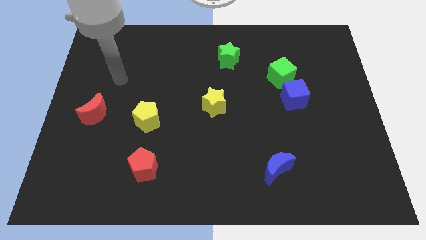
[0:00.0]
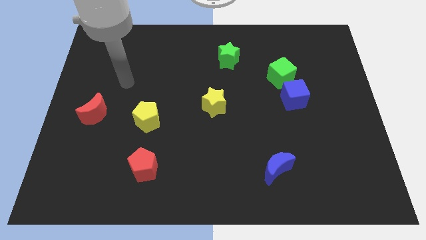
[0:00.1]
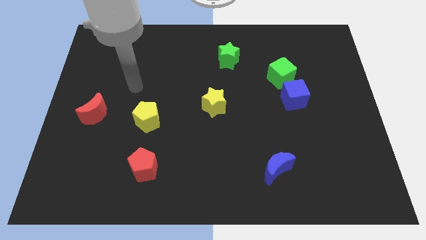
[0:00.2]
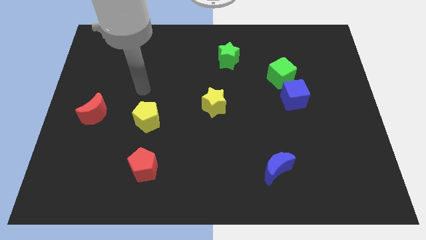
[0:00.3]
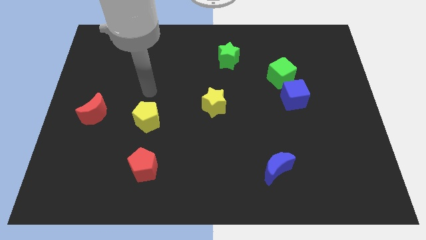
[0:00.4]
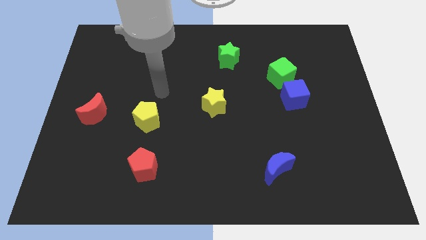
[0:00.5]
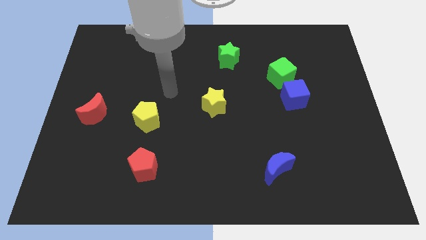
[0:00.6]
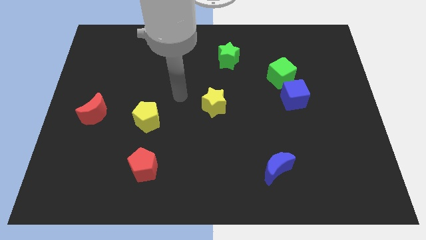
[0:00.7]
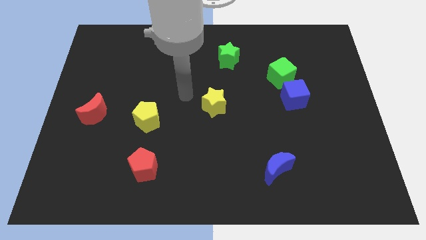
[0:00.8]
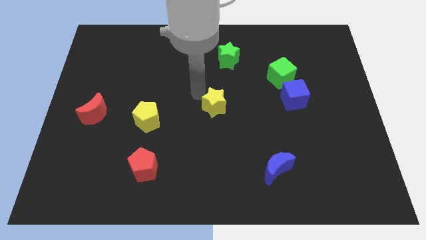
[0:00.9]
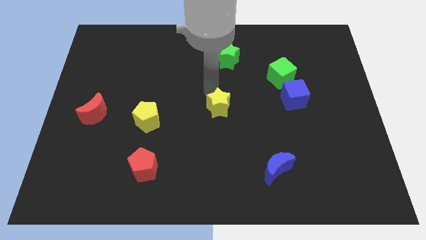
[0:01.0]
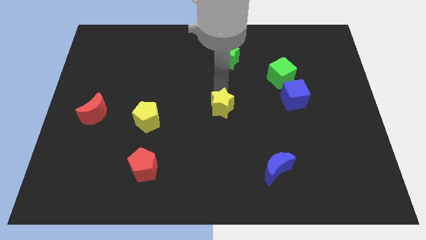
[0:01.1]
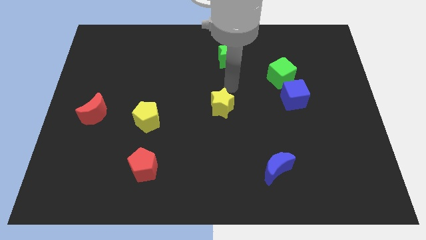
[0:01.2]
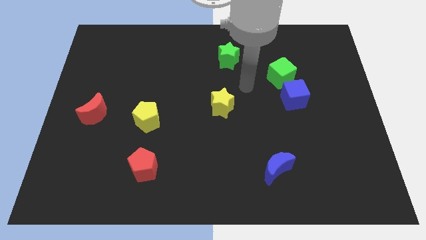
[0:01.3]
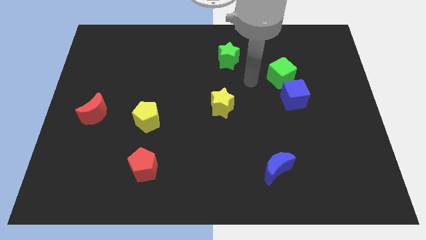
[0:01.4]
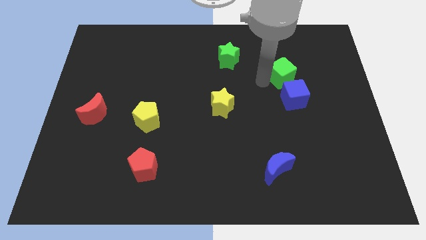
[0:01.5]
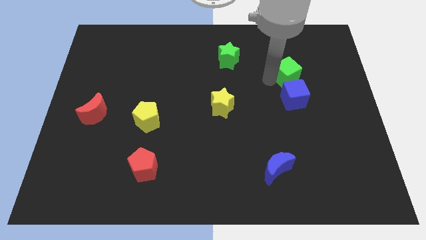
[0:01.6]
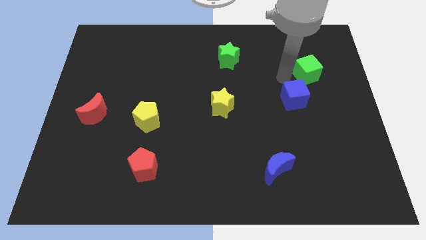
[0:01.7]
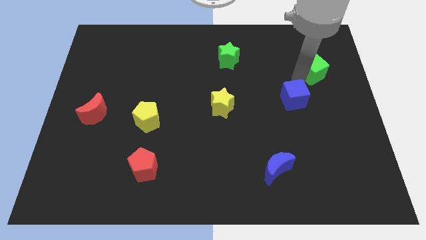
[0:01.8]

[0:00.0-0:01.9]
move the blue cube away from the green cube

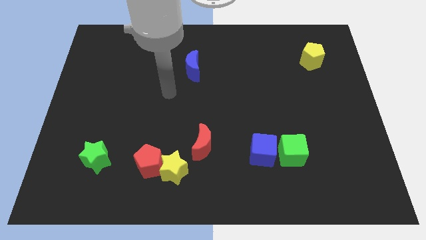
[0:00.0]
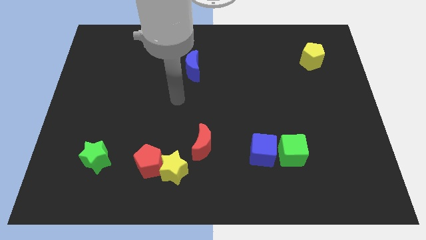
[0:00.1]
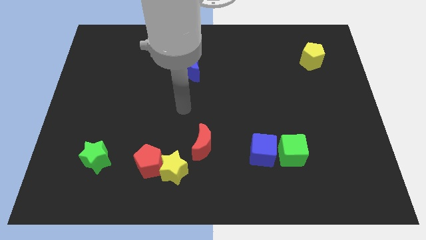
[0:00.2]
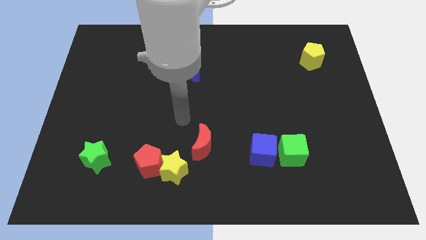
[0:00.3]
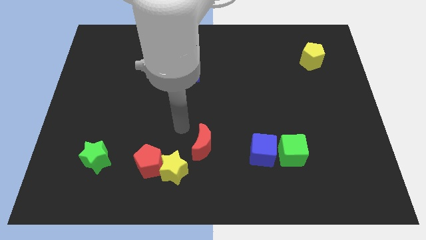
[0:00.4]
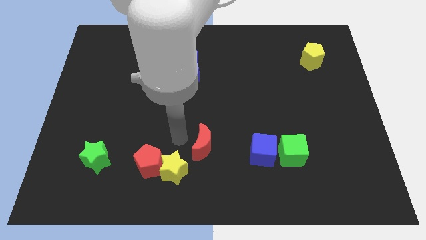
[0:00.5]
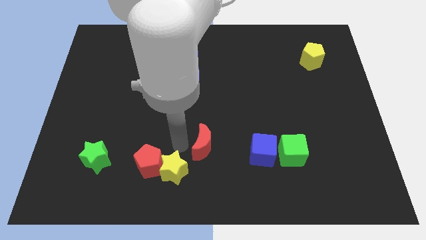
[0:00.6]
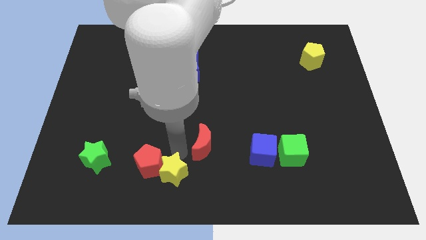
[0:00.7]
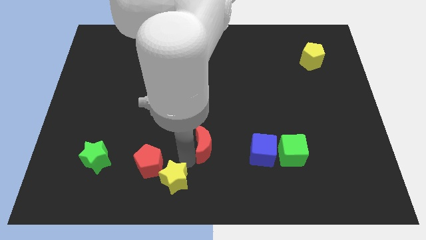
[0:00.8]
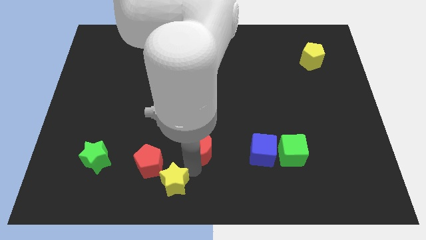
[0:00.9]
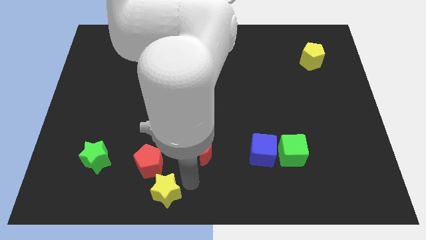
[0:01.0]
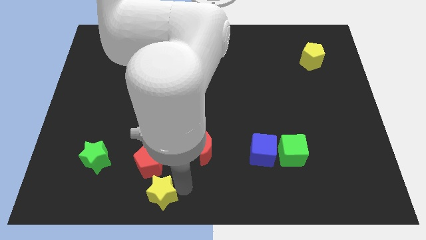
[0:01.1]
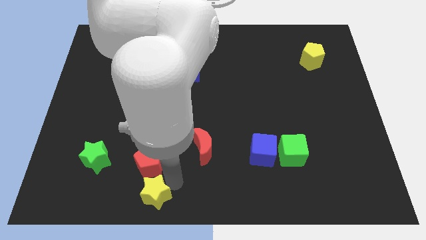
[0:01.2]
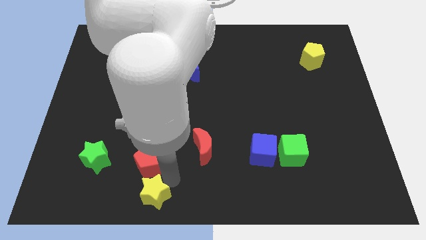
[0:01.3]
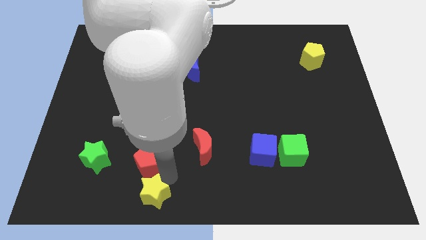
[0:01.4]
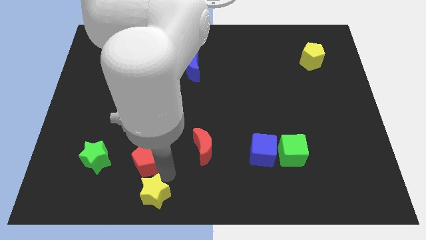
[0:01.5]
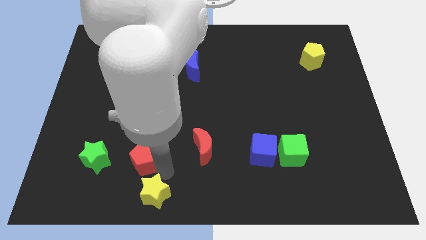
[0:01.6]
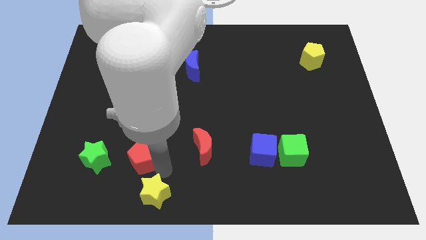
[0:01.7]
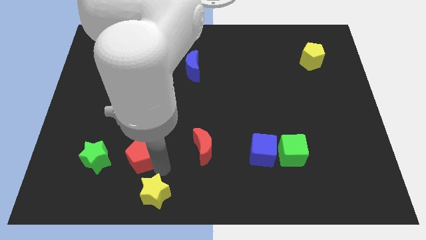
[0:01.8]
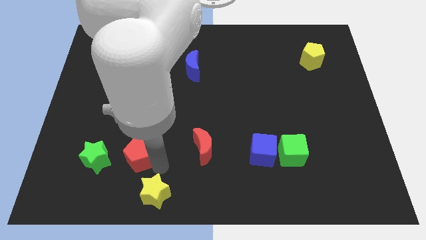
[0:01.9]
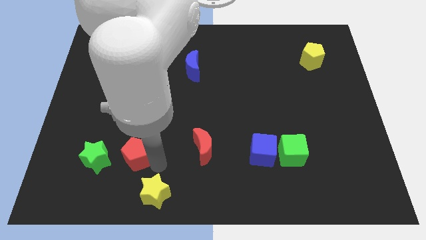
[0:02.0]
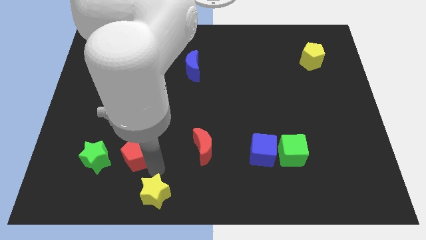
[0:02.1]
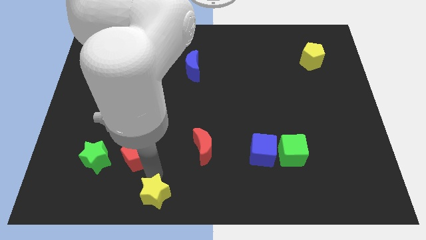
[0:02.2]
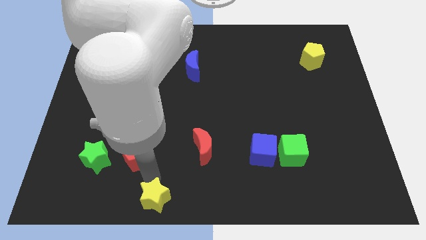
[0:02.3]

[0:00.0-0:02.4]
move the red pentagon away from the yellow star

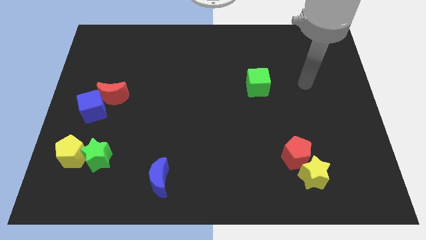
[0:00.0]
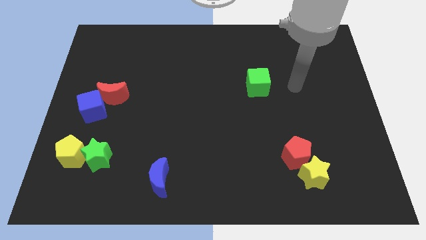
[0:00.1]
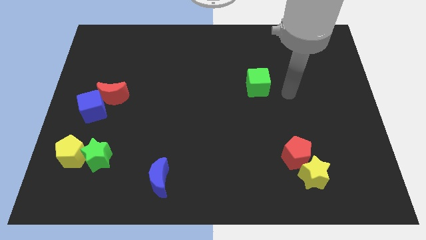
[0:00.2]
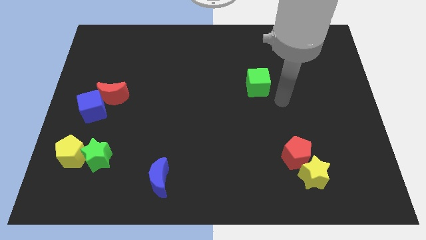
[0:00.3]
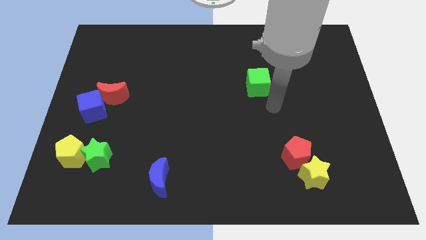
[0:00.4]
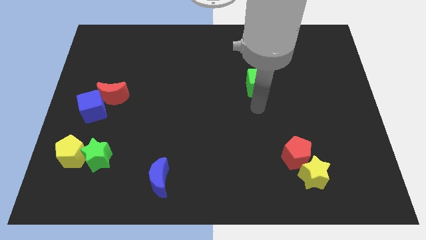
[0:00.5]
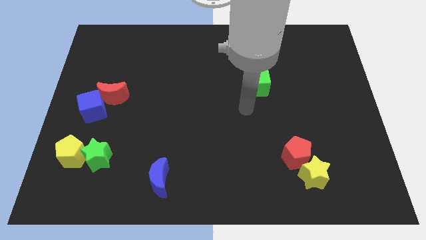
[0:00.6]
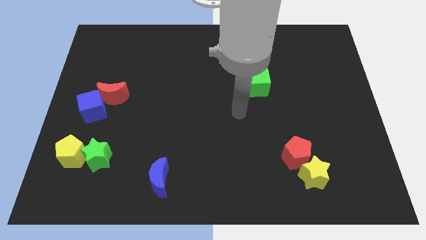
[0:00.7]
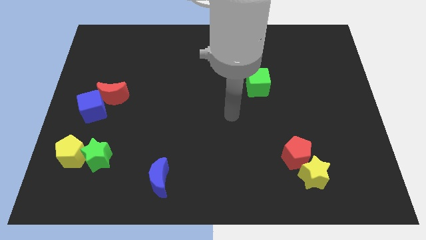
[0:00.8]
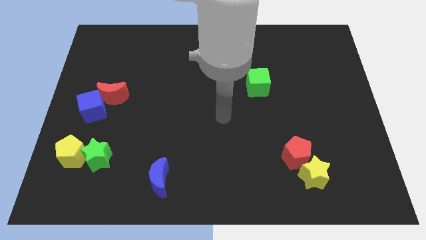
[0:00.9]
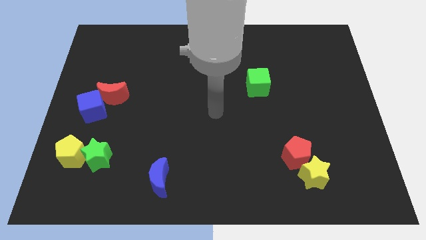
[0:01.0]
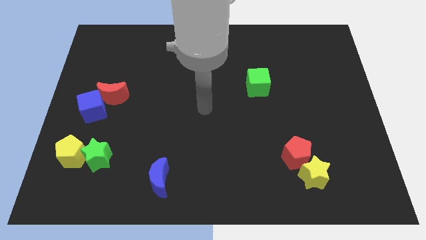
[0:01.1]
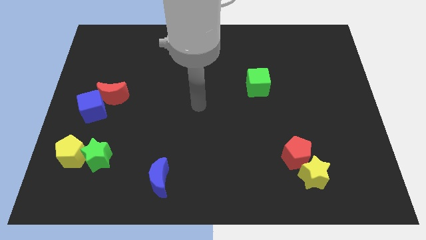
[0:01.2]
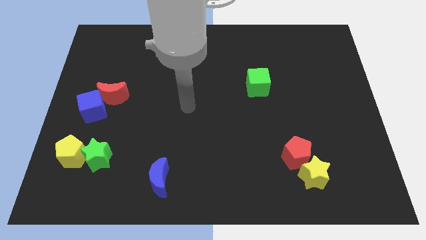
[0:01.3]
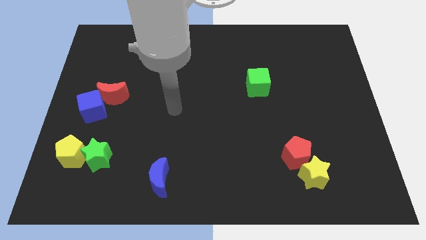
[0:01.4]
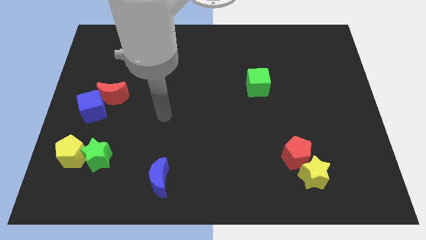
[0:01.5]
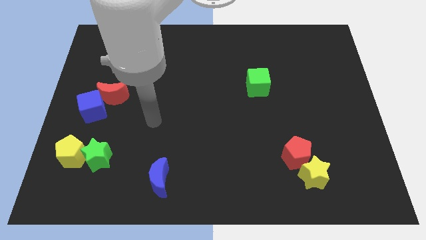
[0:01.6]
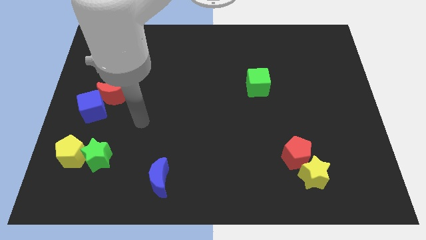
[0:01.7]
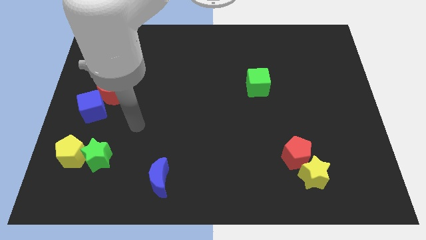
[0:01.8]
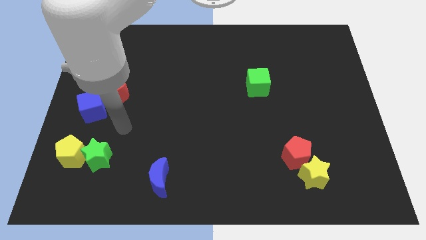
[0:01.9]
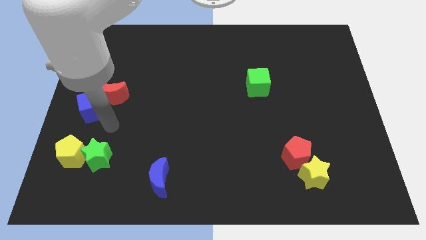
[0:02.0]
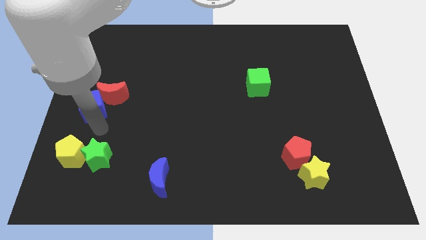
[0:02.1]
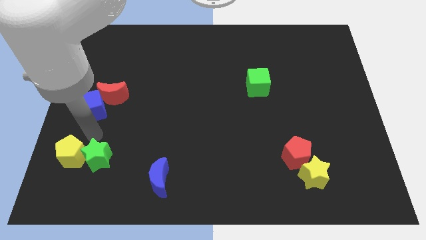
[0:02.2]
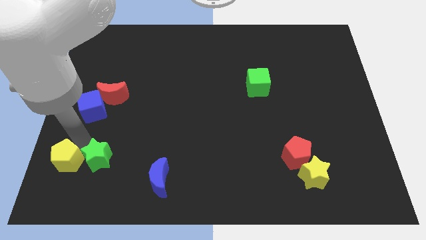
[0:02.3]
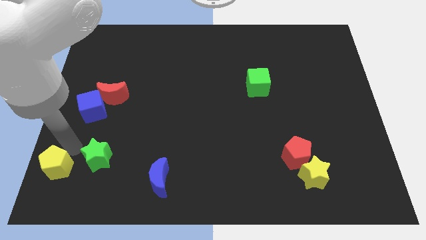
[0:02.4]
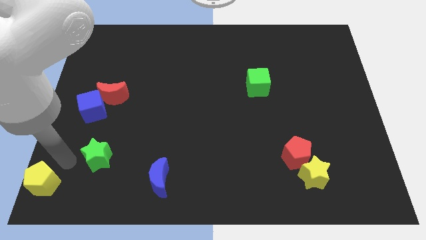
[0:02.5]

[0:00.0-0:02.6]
move the green star away from the yellow pentagon

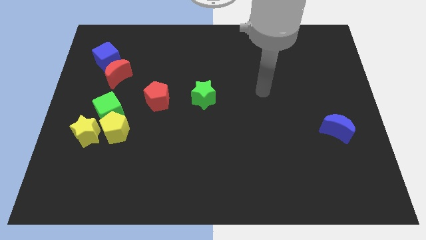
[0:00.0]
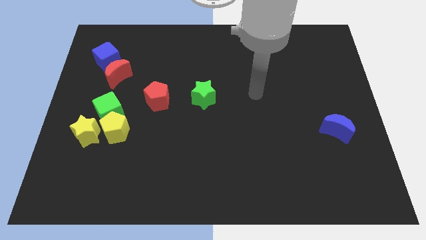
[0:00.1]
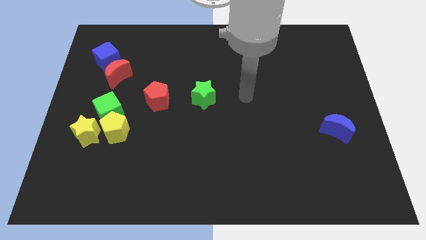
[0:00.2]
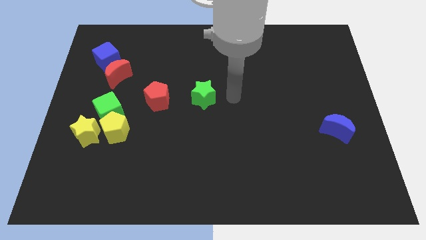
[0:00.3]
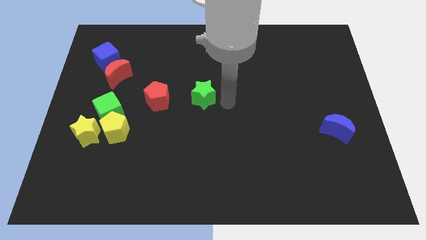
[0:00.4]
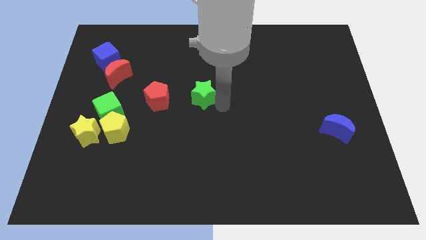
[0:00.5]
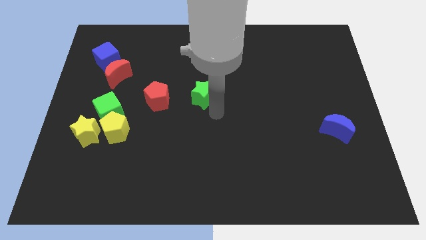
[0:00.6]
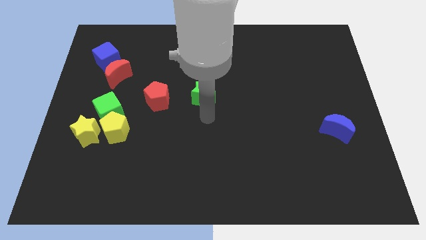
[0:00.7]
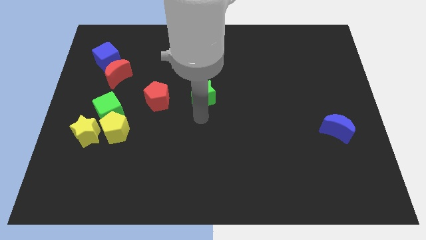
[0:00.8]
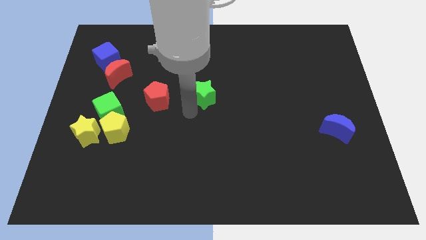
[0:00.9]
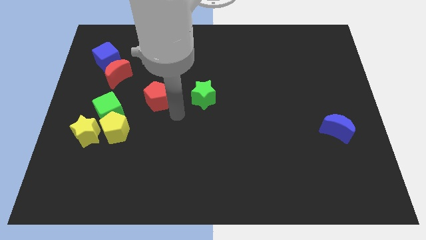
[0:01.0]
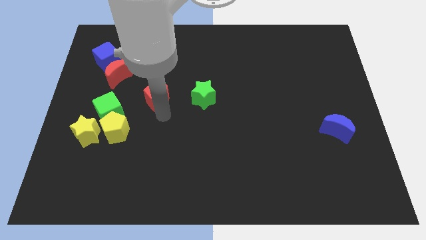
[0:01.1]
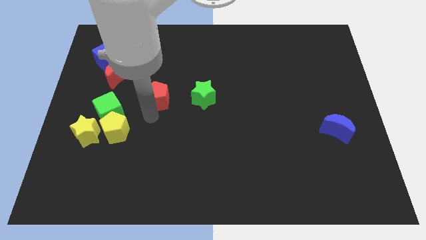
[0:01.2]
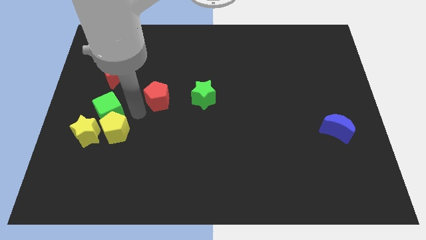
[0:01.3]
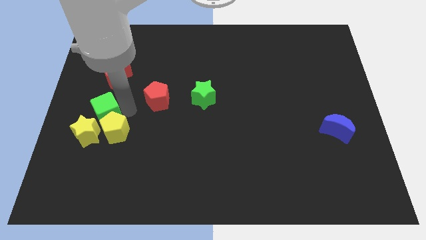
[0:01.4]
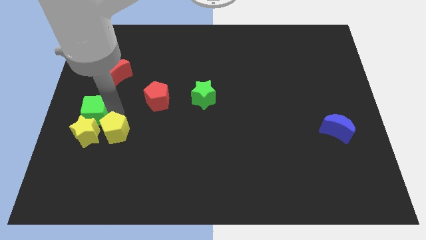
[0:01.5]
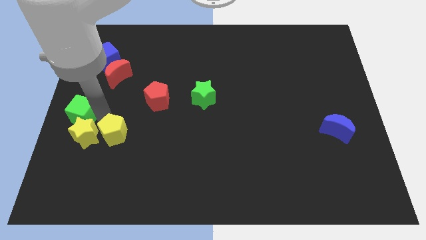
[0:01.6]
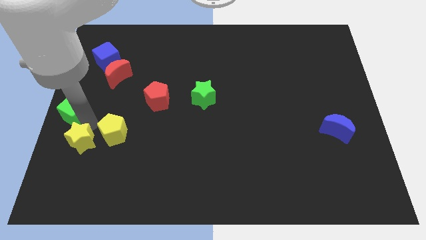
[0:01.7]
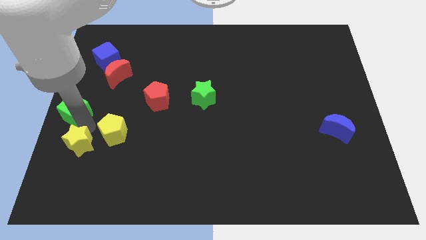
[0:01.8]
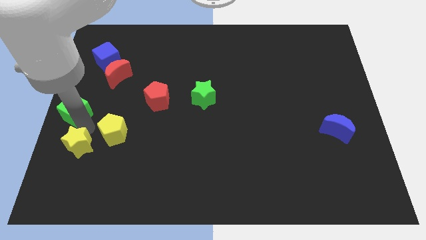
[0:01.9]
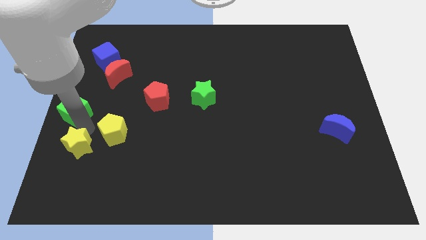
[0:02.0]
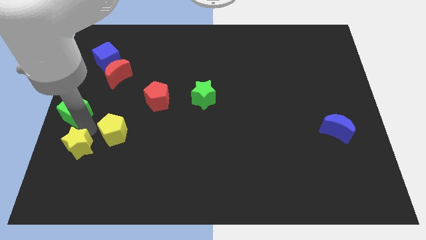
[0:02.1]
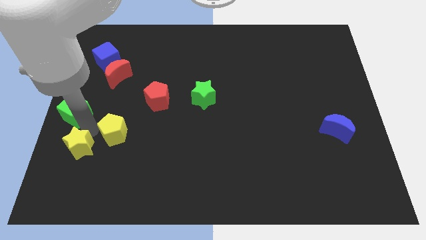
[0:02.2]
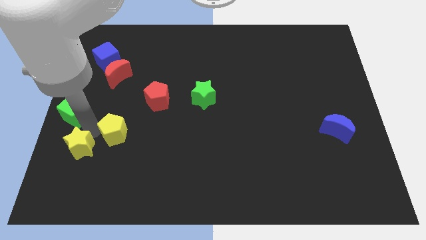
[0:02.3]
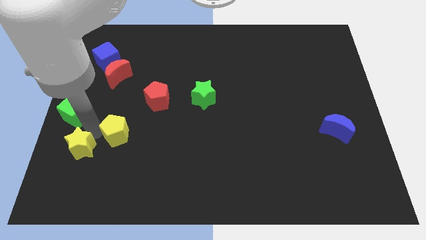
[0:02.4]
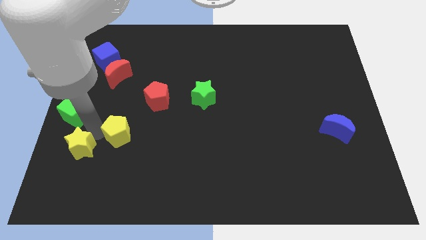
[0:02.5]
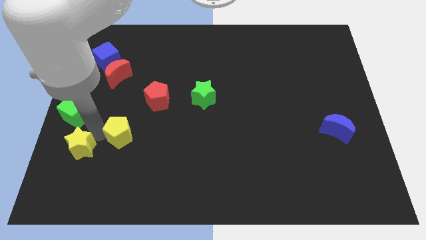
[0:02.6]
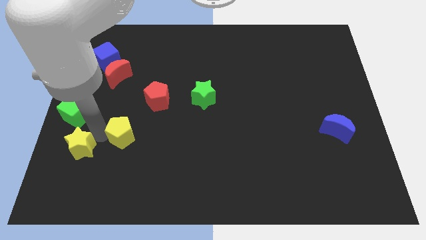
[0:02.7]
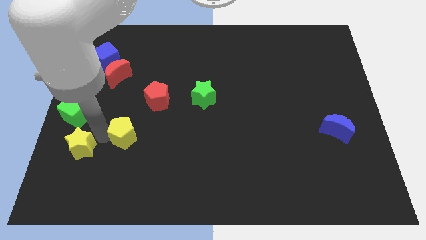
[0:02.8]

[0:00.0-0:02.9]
pull the yellow pentagon apart from the green cube and yellow star
